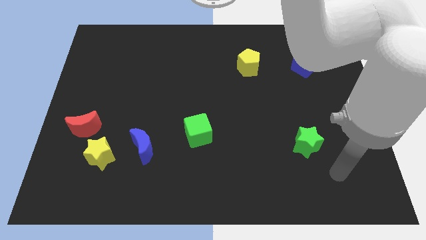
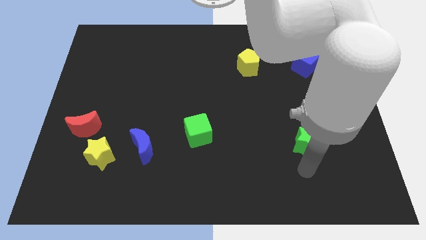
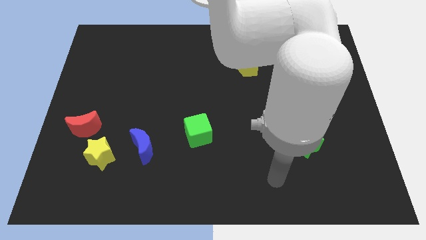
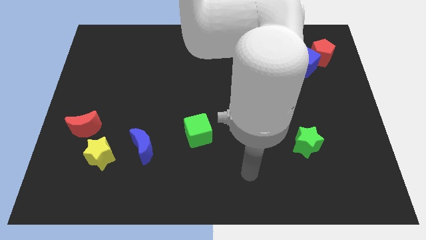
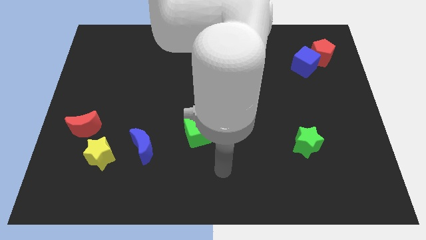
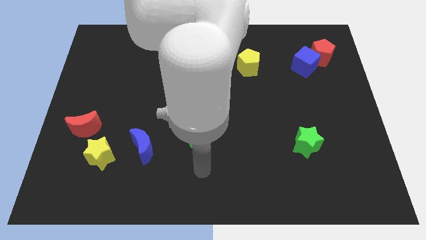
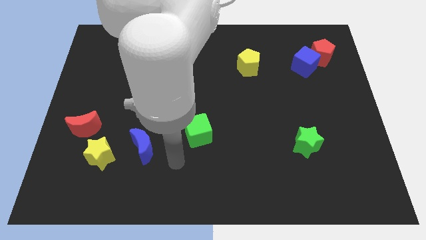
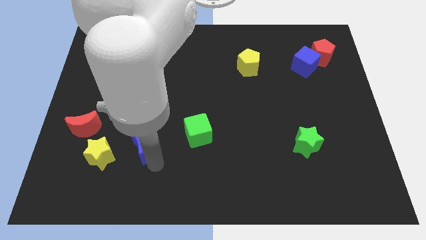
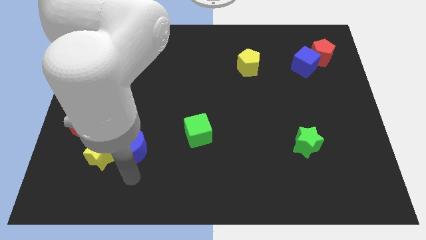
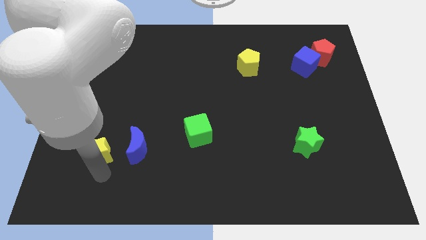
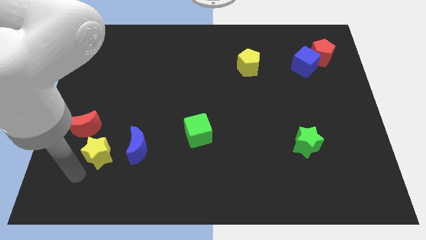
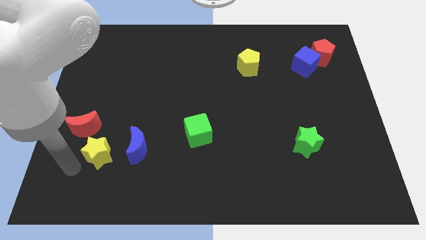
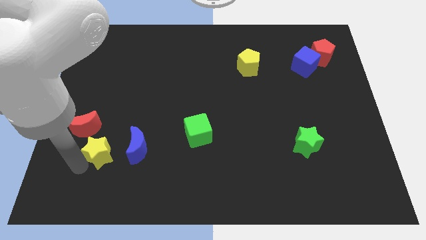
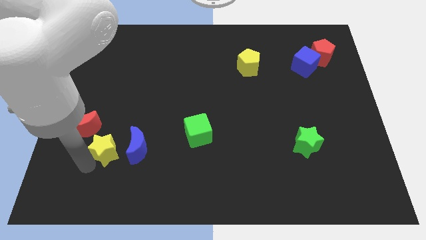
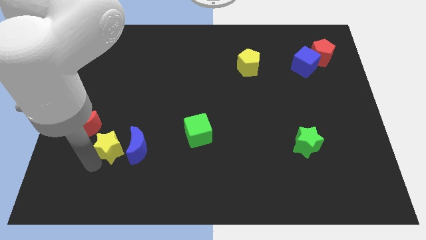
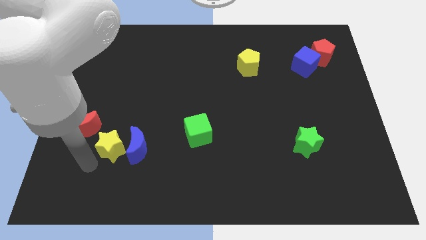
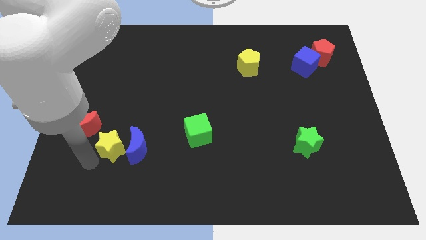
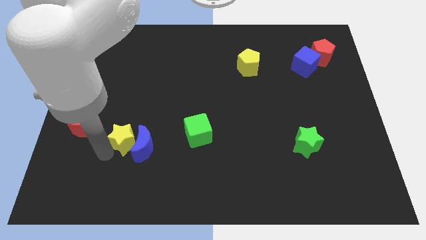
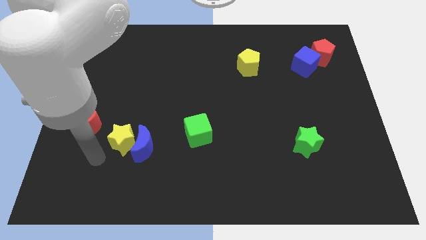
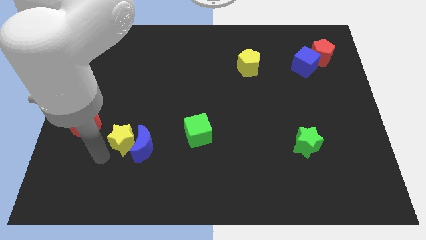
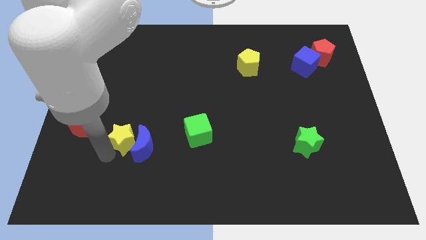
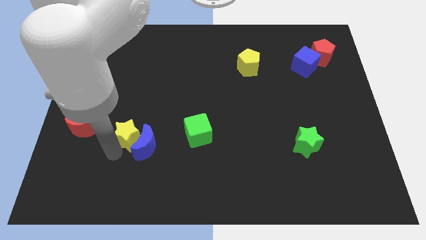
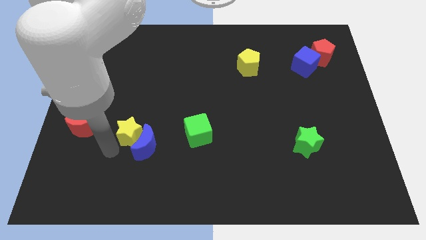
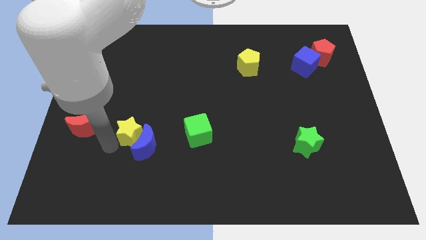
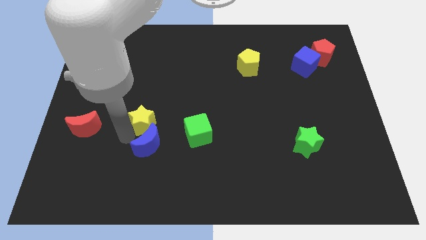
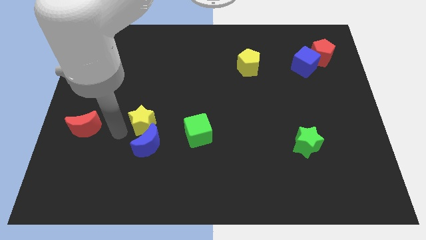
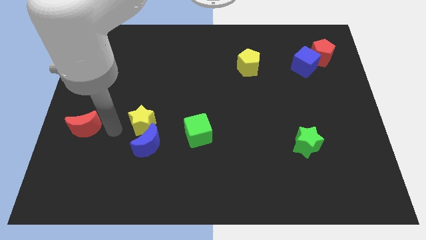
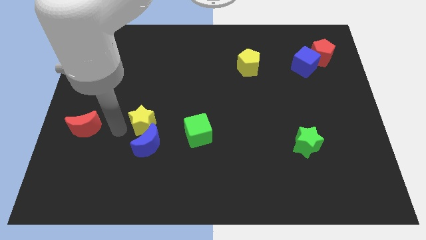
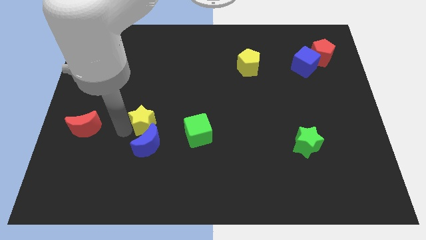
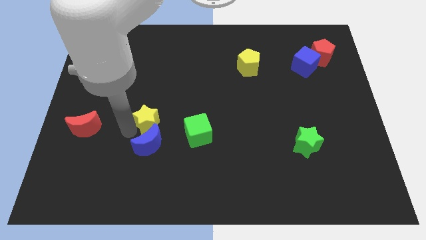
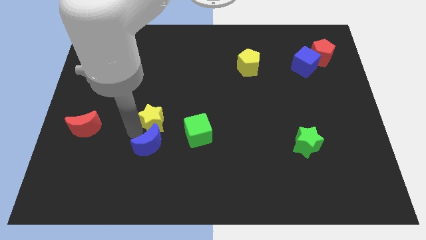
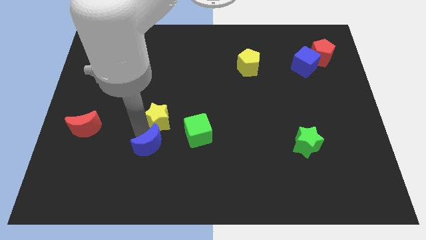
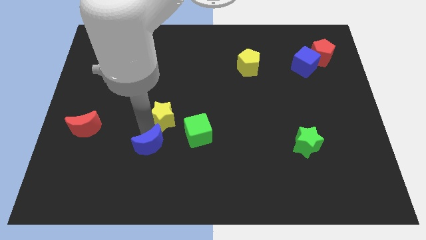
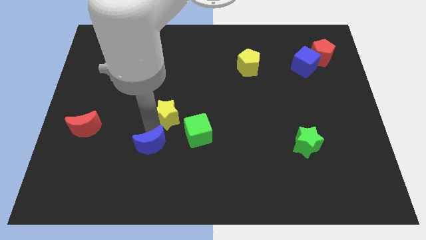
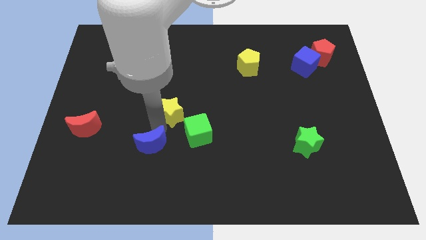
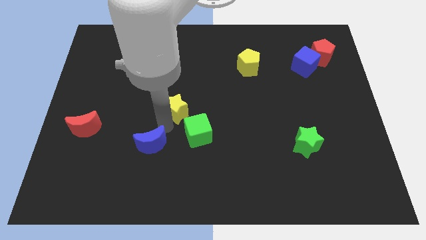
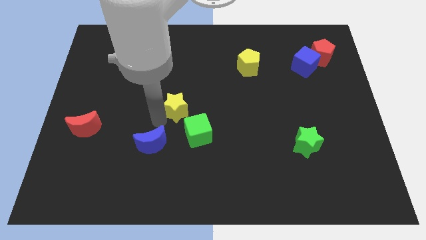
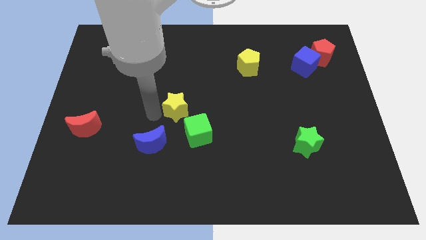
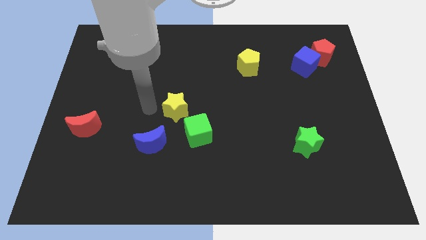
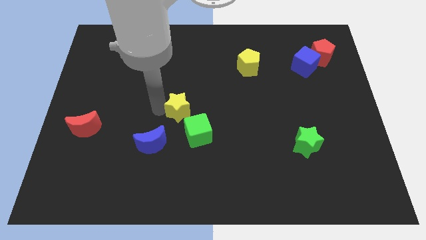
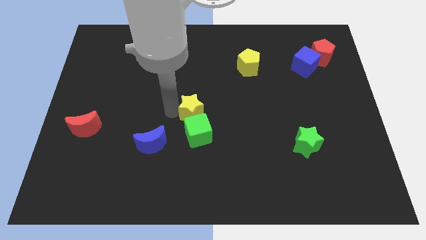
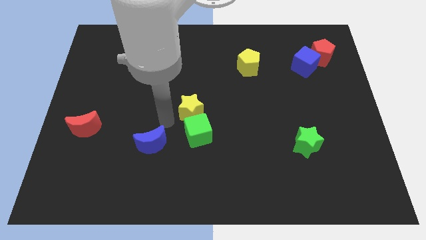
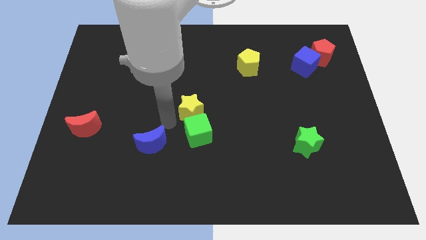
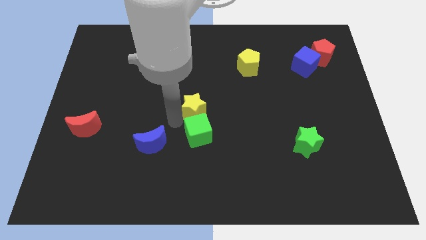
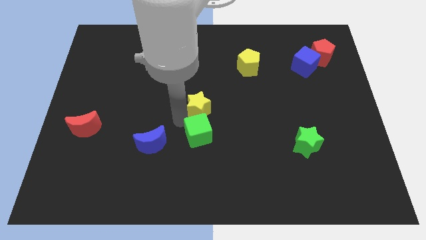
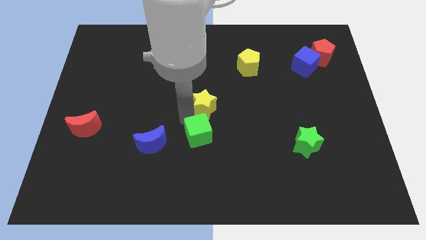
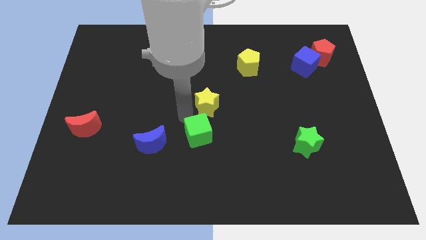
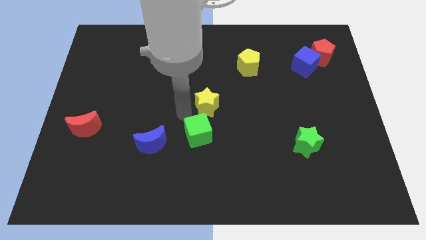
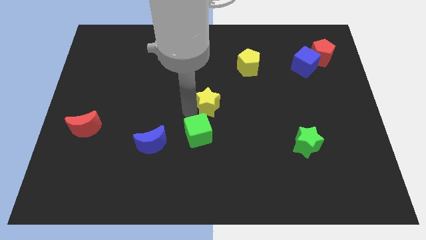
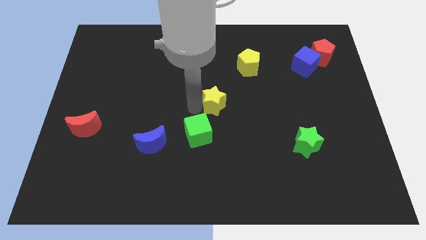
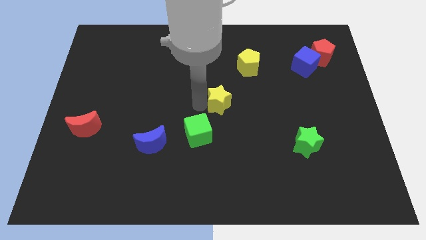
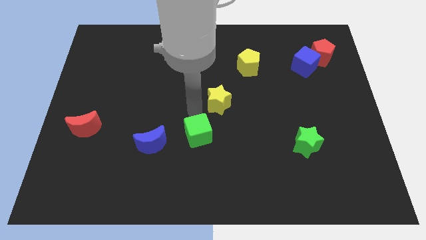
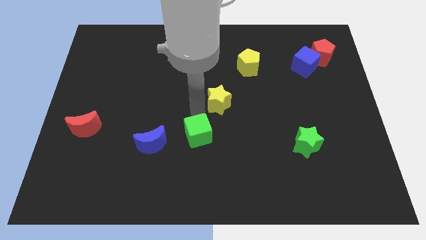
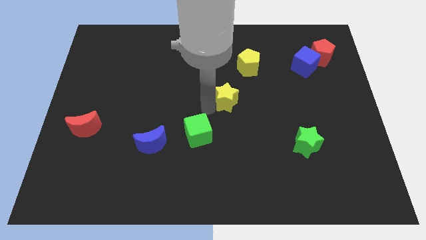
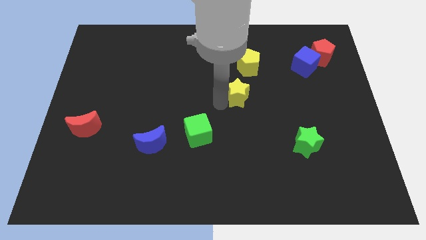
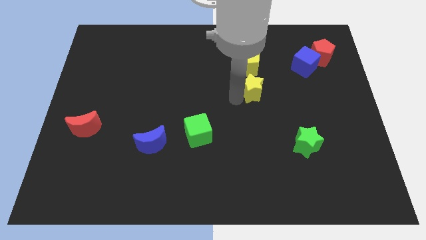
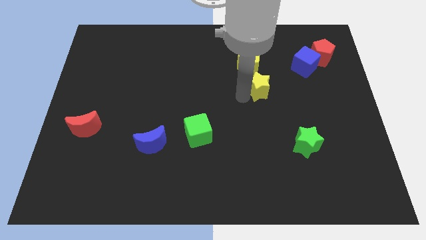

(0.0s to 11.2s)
move the yellow star to the bottom right of the yellow pentagon

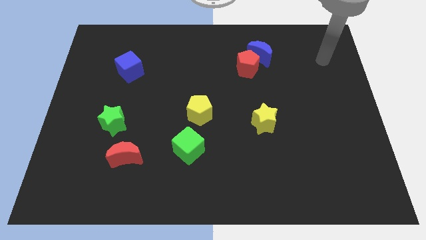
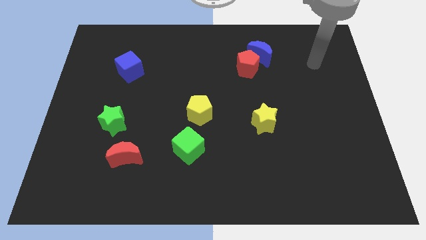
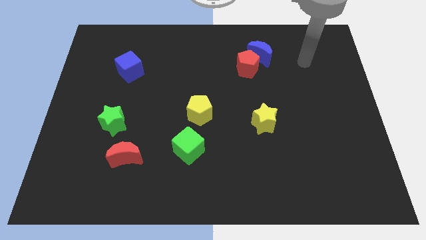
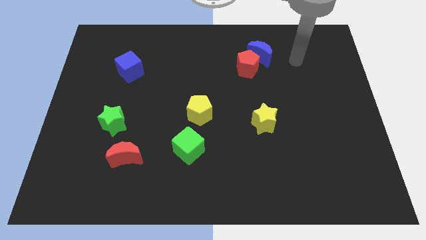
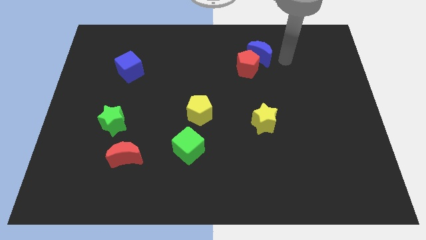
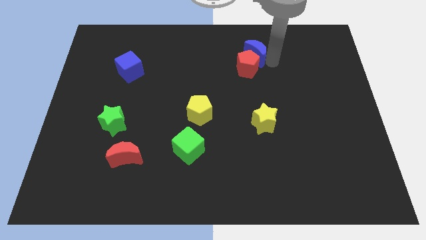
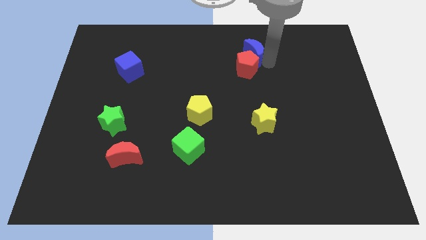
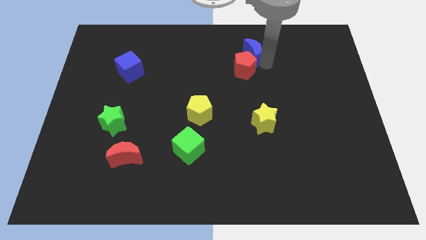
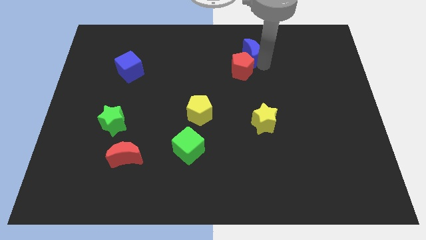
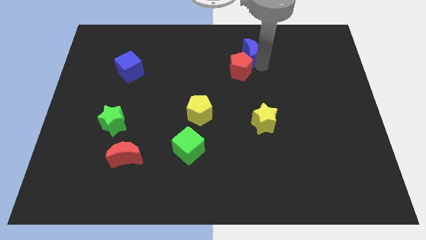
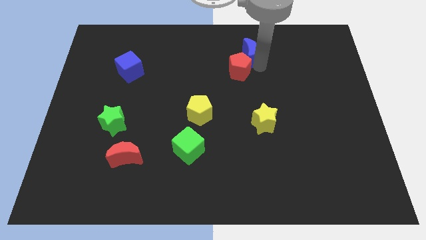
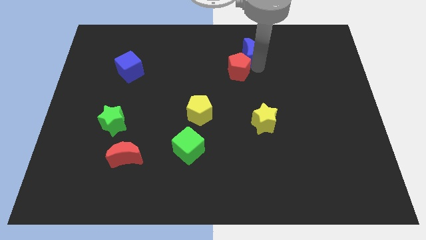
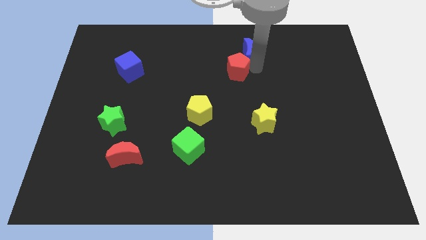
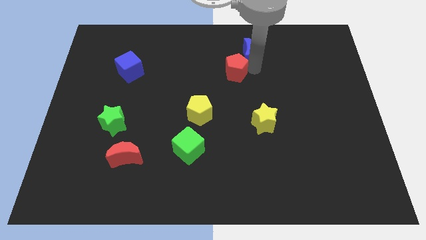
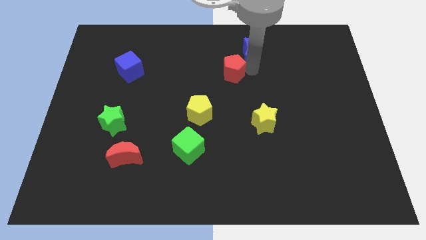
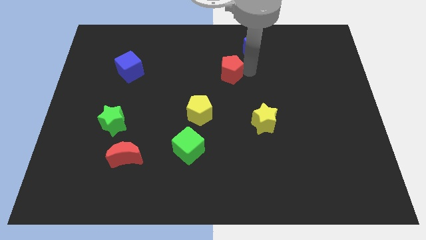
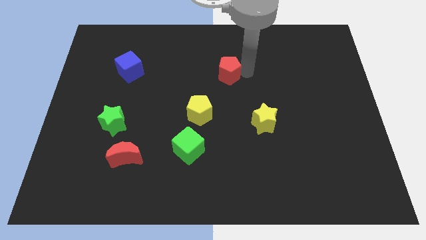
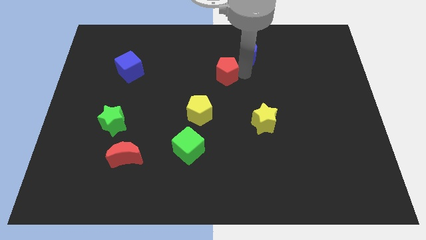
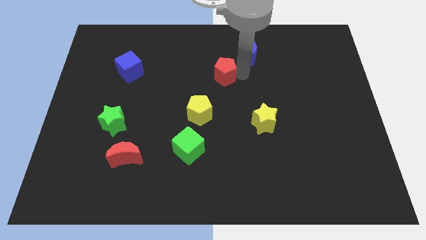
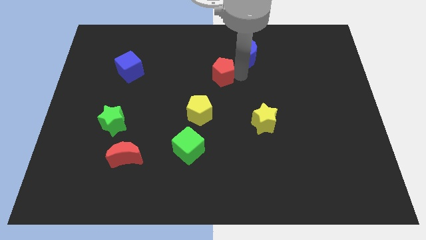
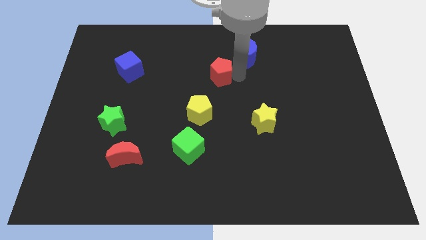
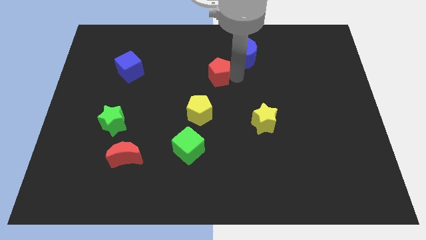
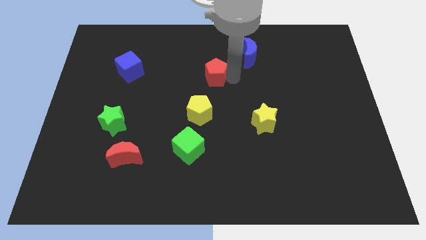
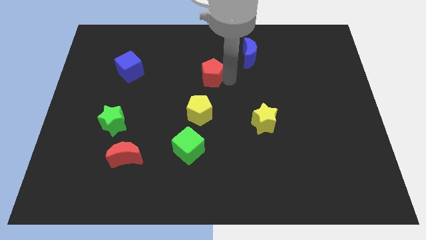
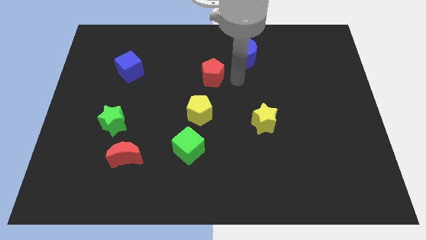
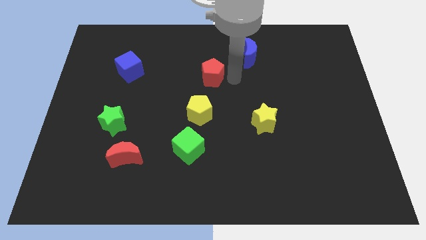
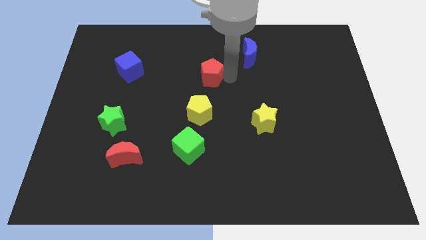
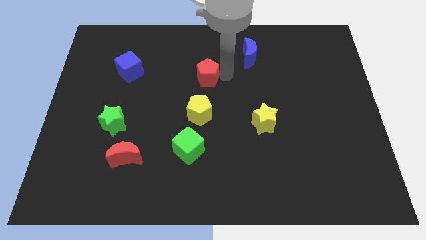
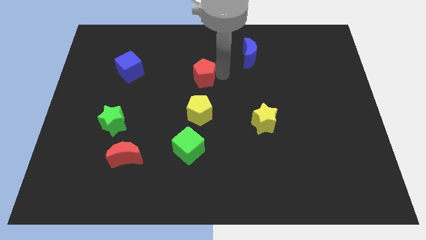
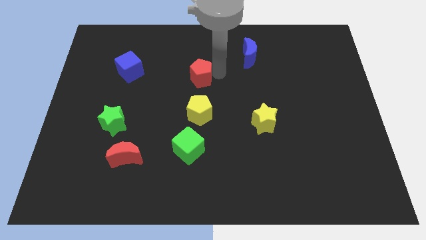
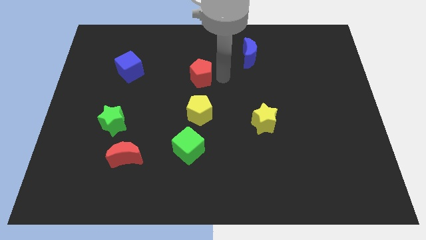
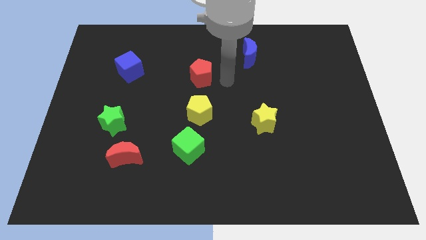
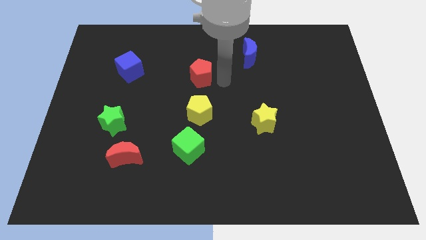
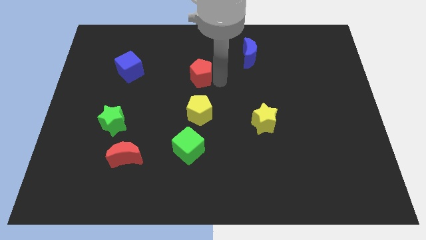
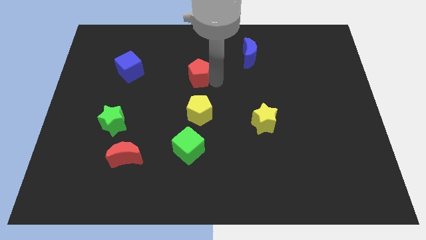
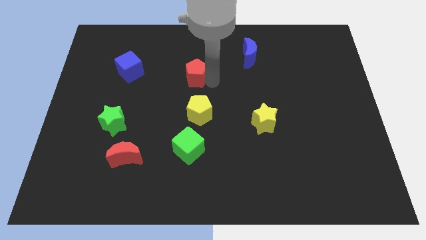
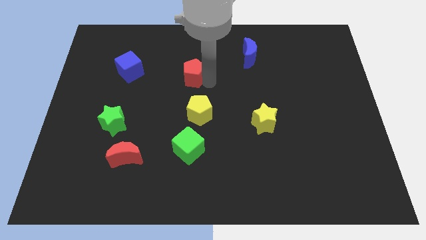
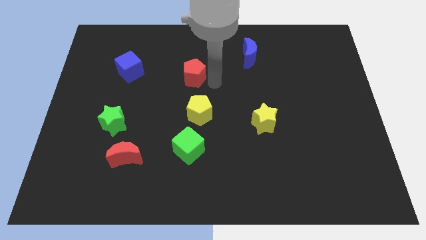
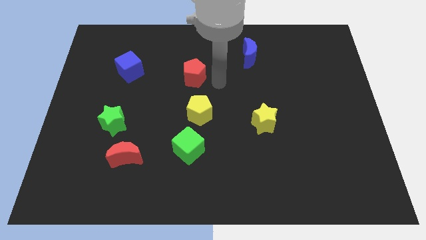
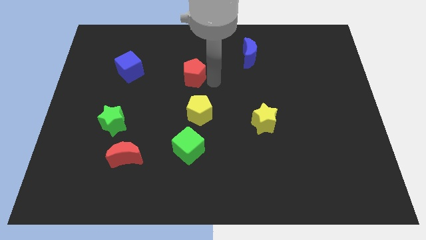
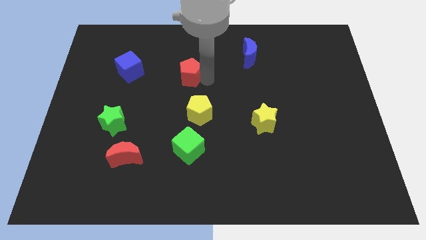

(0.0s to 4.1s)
push the red pentagon to the right of the blue cube
